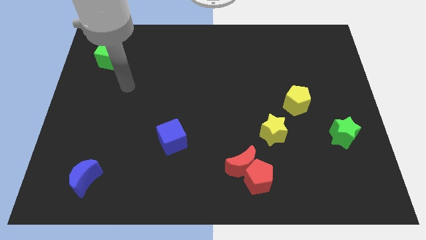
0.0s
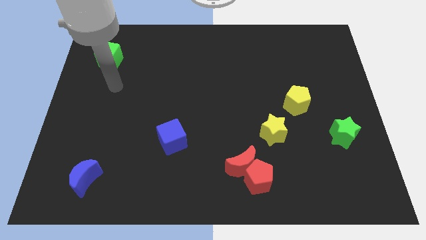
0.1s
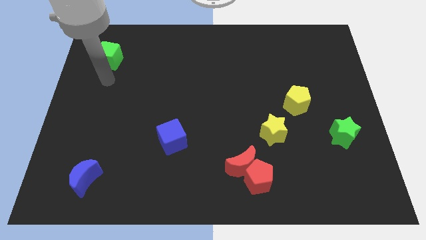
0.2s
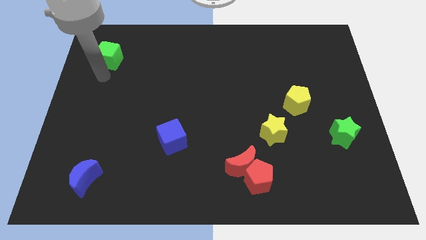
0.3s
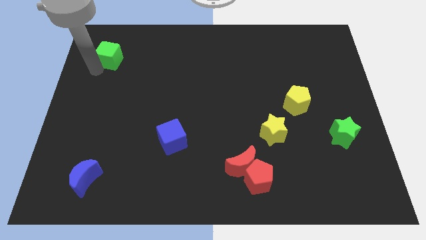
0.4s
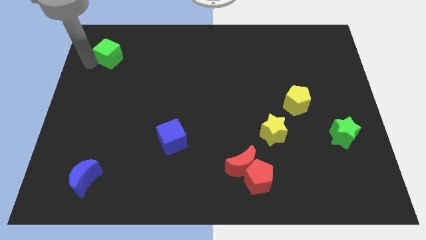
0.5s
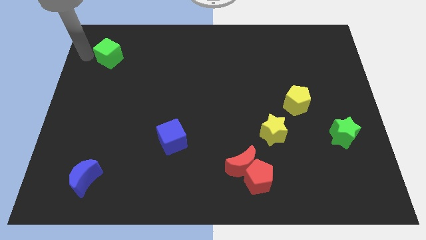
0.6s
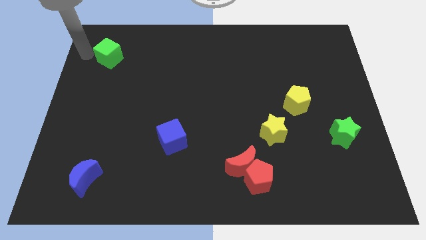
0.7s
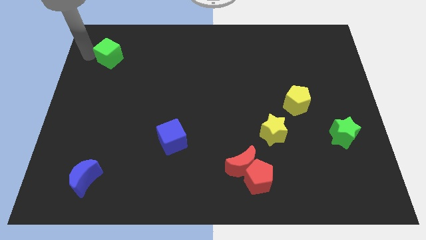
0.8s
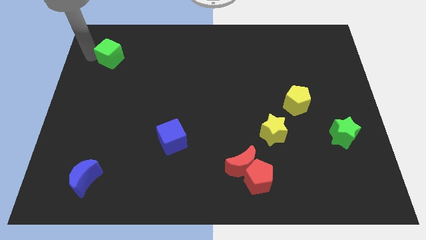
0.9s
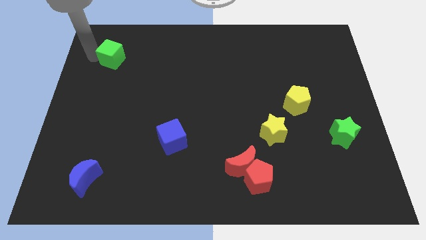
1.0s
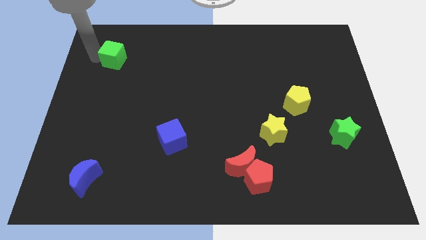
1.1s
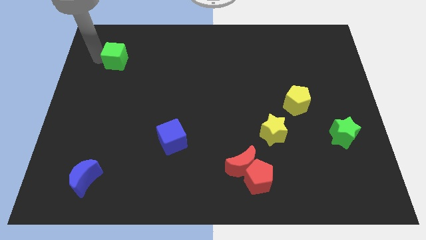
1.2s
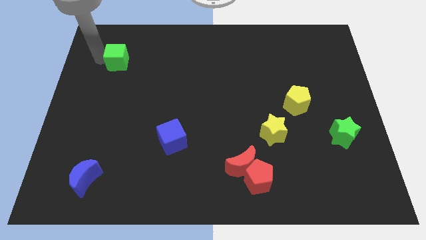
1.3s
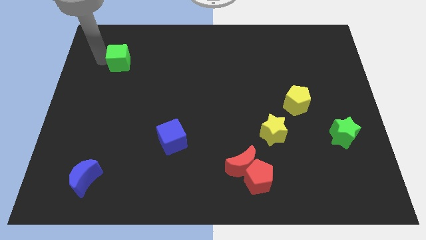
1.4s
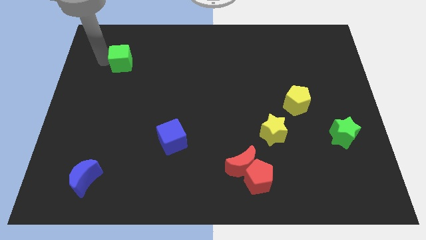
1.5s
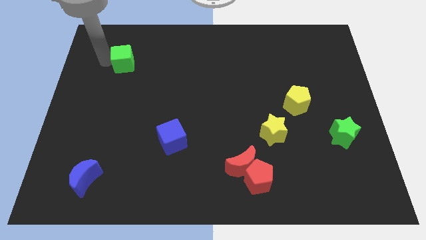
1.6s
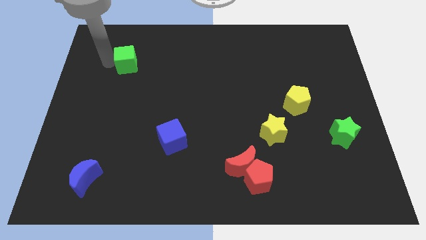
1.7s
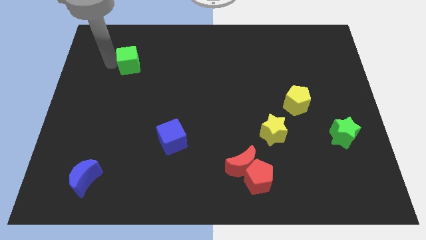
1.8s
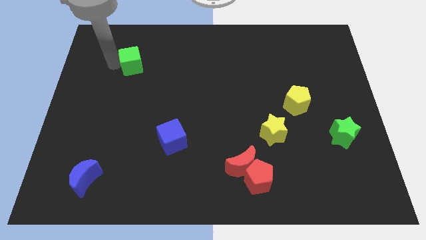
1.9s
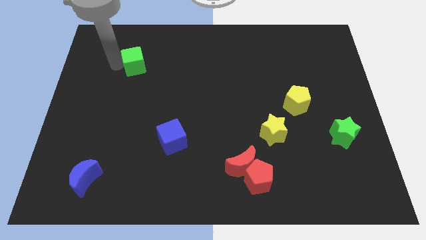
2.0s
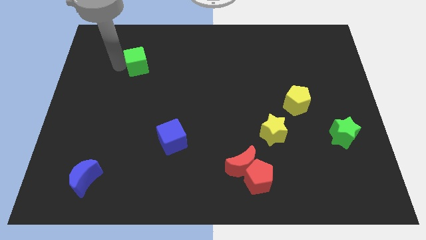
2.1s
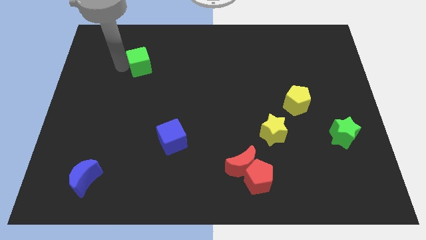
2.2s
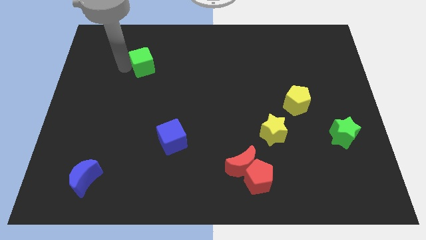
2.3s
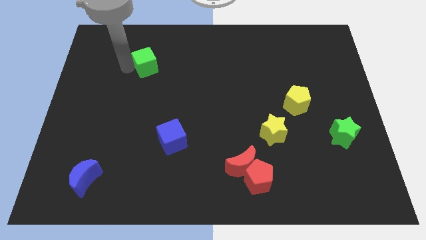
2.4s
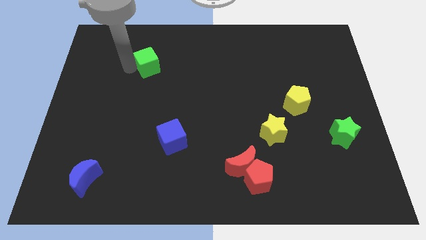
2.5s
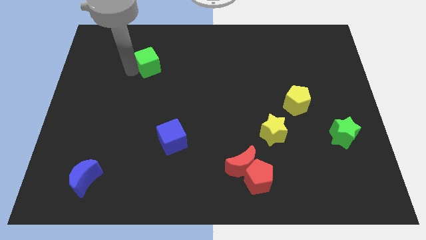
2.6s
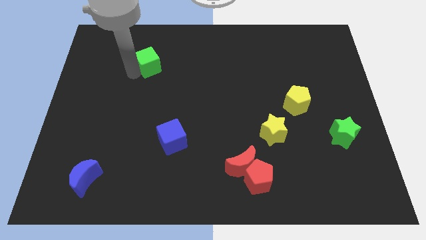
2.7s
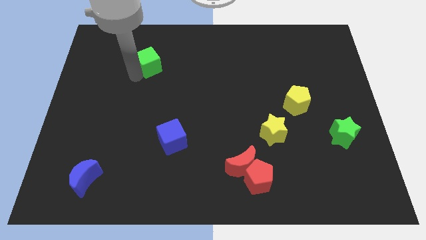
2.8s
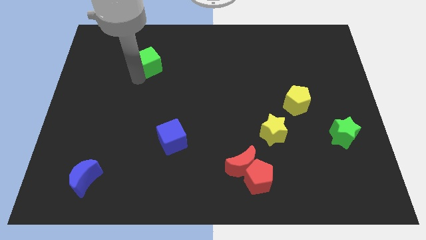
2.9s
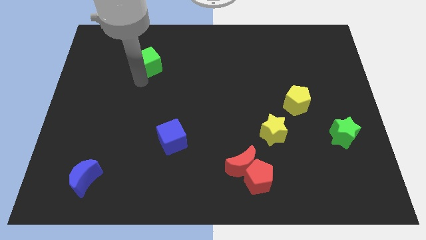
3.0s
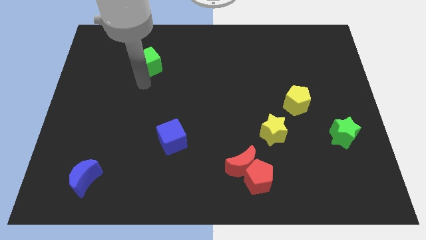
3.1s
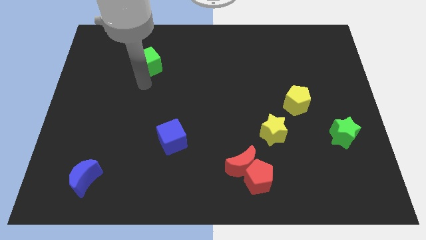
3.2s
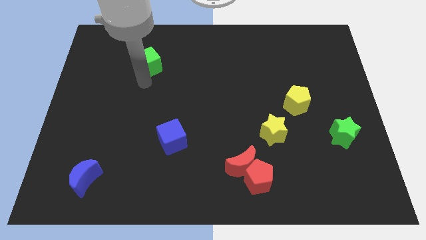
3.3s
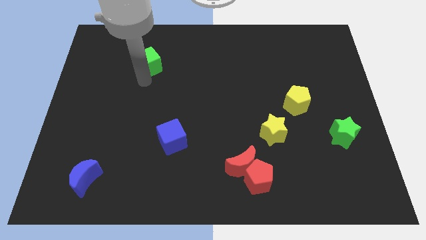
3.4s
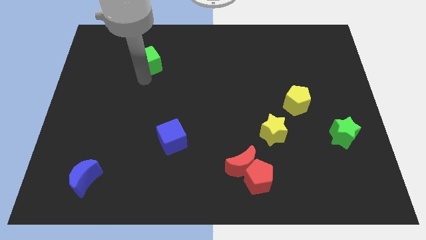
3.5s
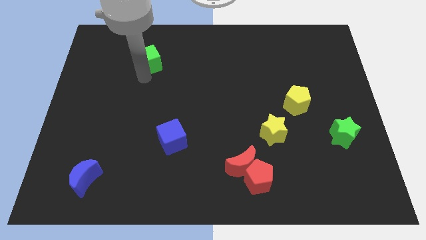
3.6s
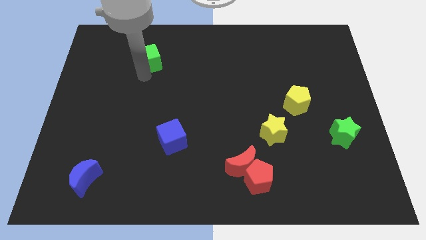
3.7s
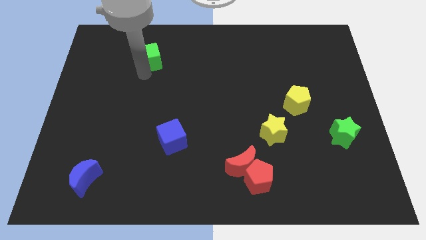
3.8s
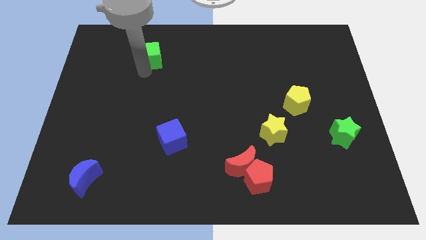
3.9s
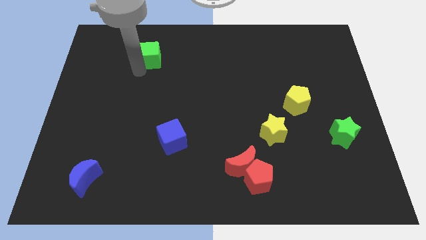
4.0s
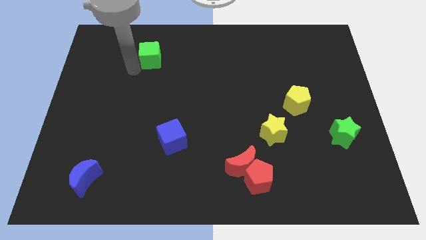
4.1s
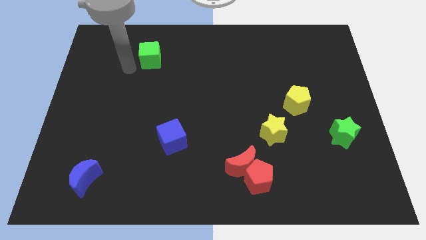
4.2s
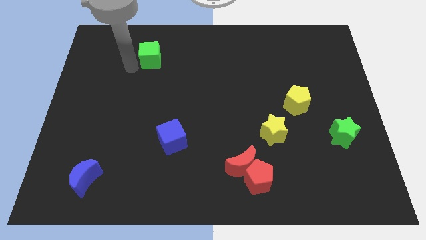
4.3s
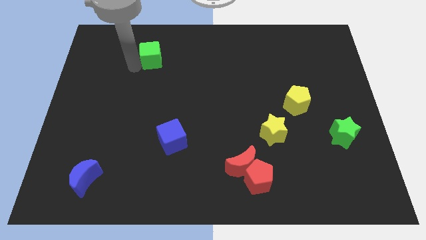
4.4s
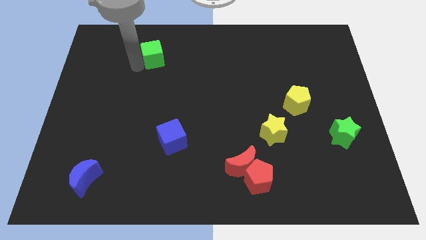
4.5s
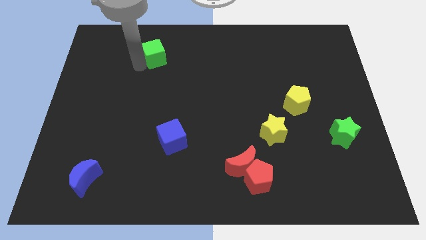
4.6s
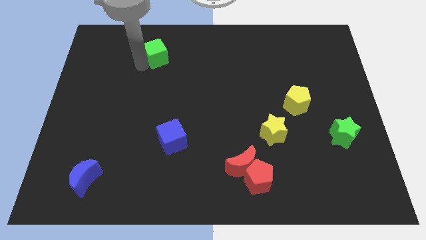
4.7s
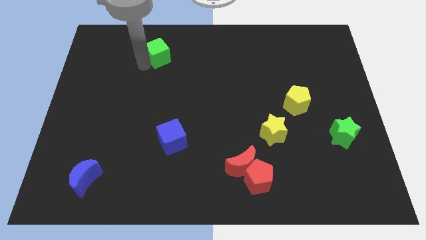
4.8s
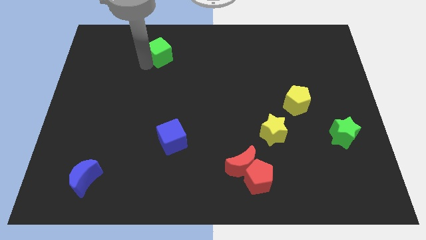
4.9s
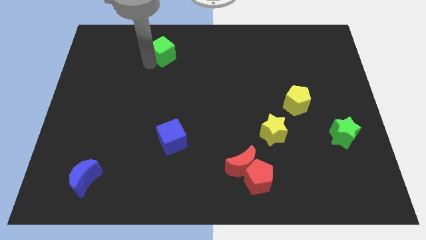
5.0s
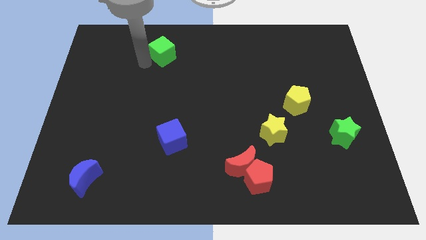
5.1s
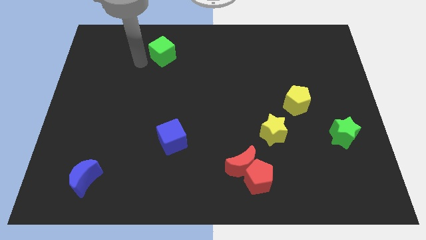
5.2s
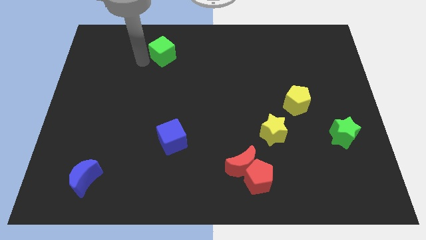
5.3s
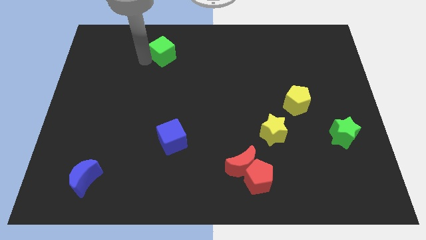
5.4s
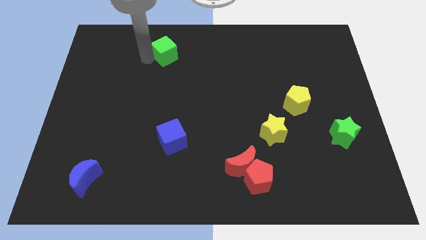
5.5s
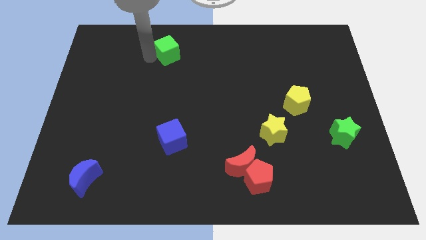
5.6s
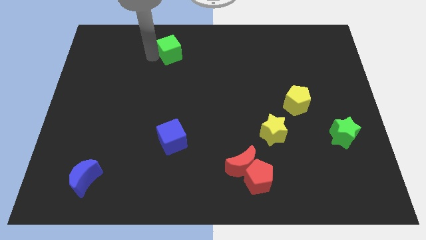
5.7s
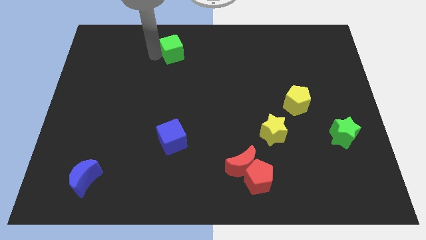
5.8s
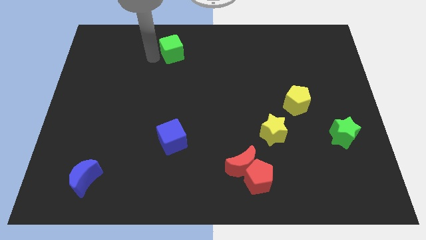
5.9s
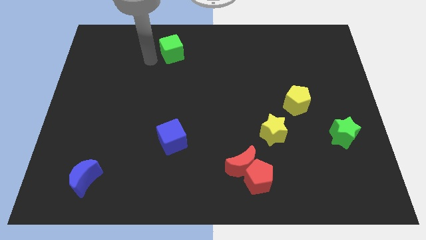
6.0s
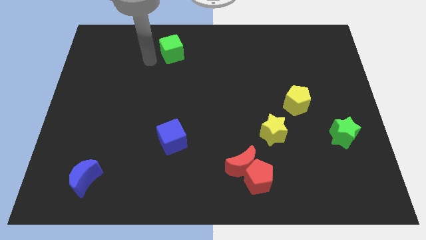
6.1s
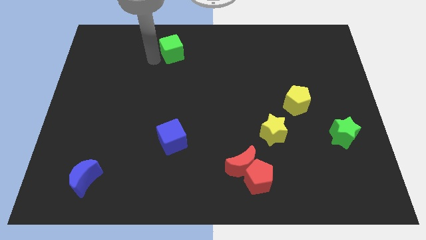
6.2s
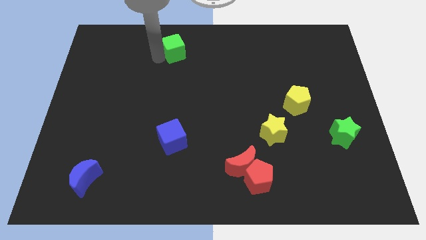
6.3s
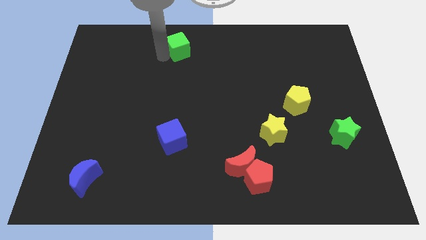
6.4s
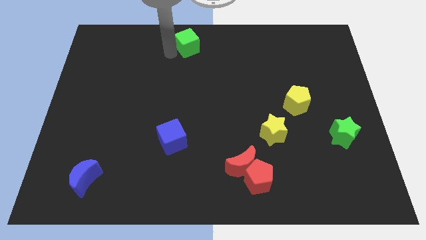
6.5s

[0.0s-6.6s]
slide the green cube to the towards your base

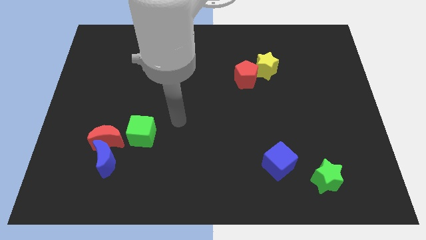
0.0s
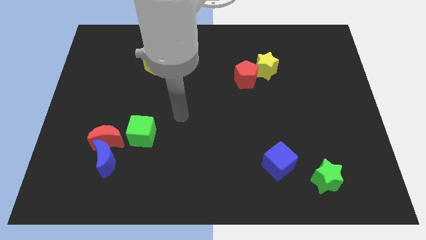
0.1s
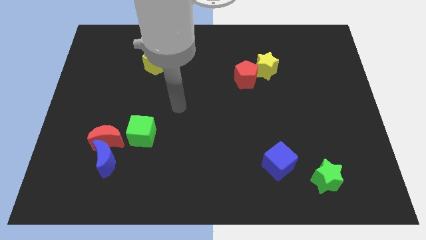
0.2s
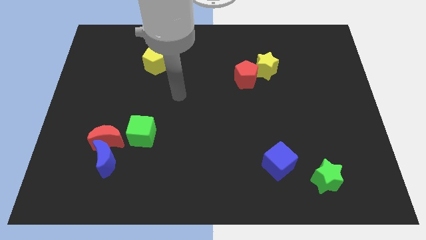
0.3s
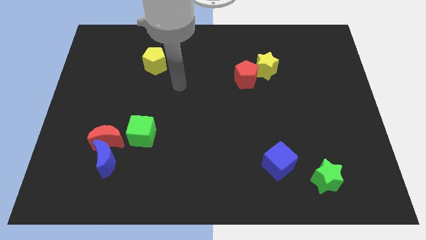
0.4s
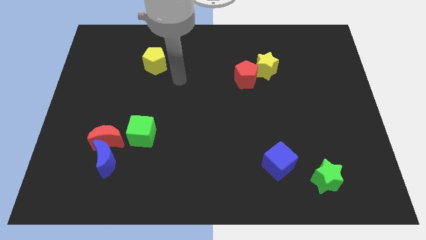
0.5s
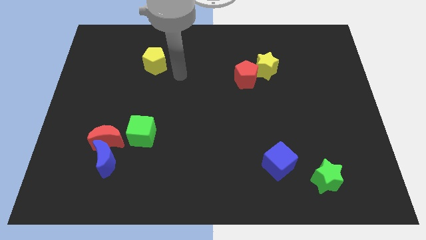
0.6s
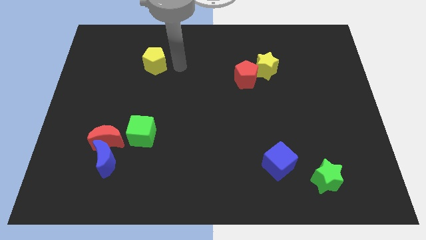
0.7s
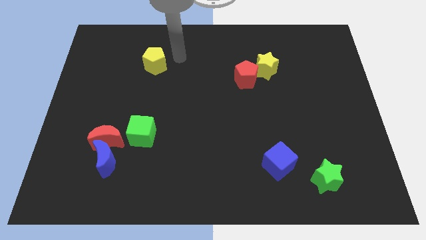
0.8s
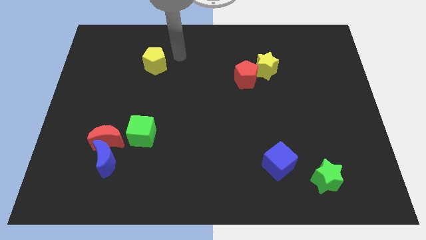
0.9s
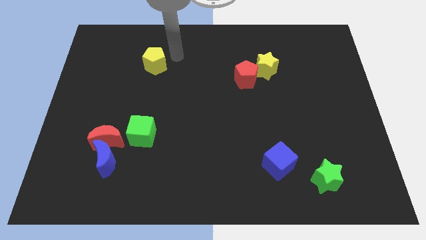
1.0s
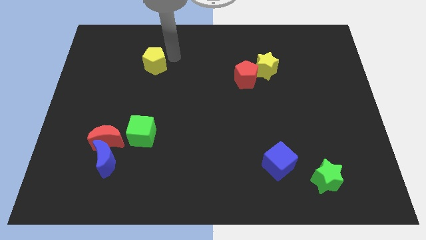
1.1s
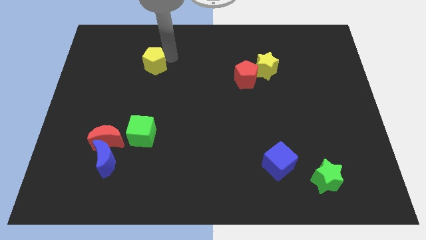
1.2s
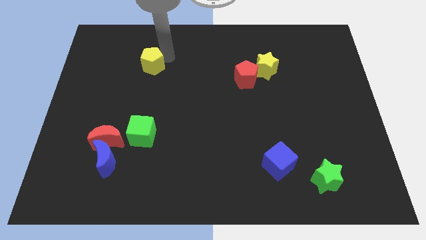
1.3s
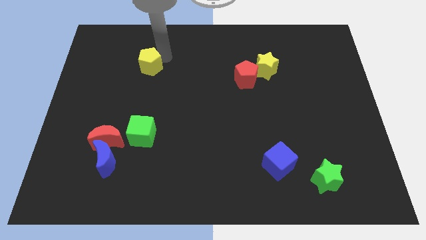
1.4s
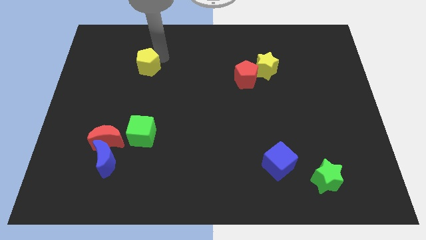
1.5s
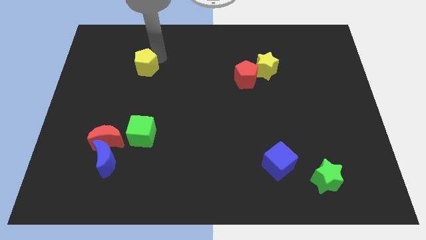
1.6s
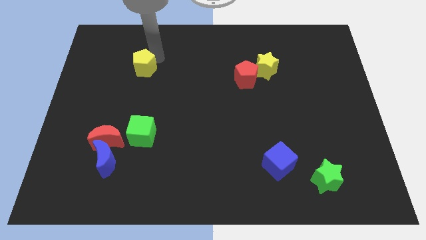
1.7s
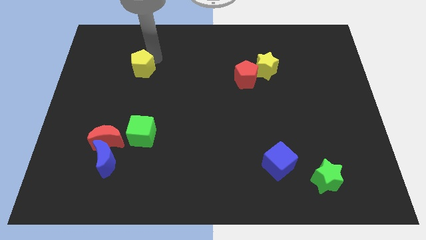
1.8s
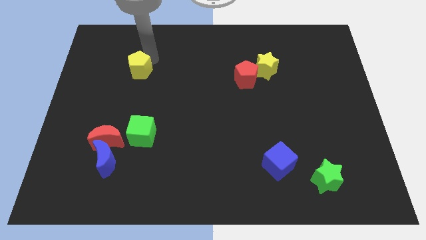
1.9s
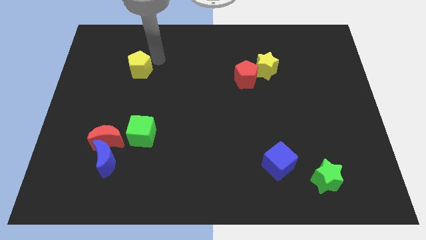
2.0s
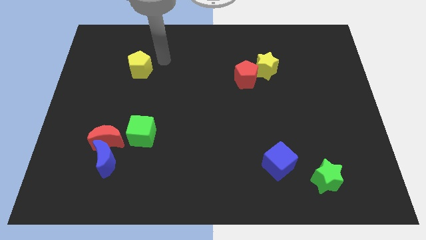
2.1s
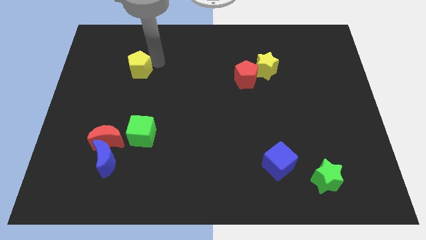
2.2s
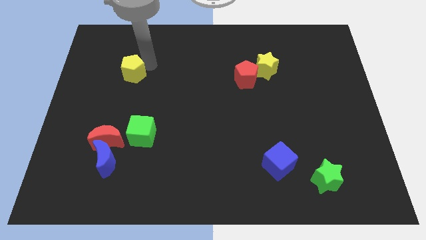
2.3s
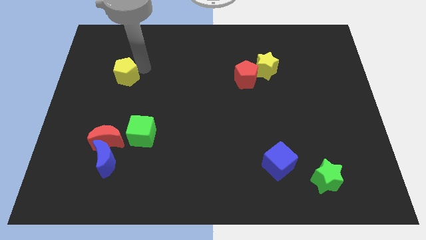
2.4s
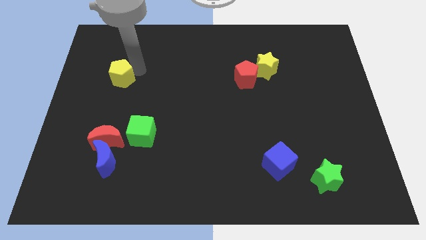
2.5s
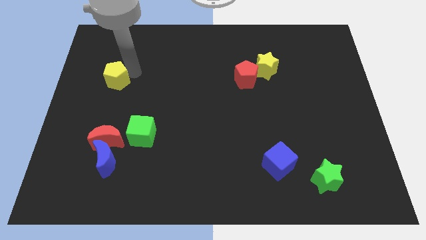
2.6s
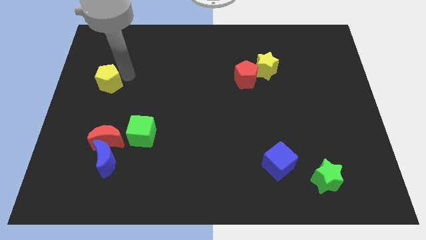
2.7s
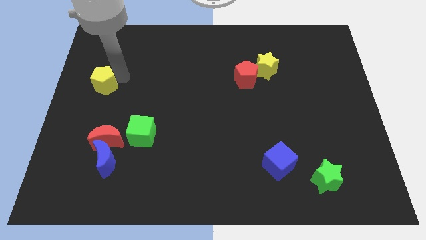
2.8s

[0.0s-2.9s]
slide the yellow pentagon to the left side of the board
